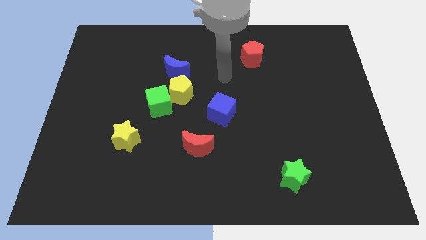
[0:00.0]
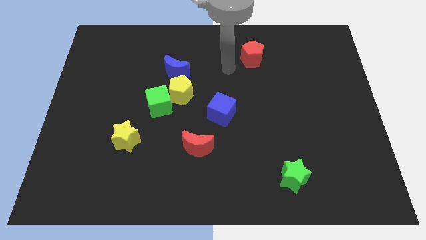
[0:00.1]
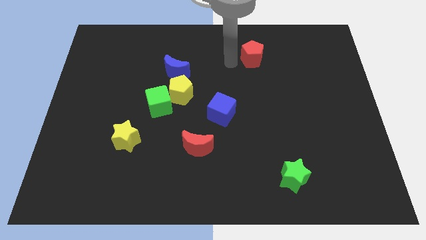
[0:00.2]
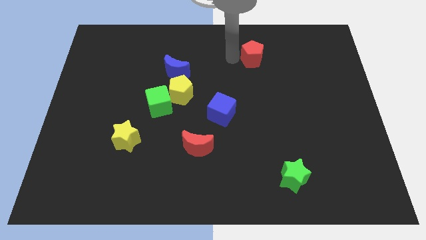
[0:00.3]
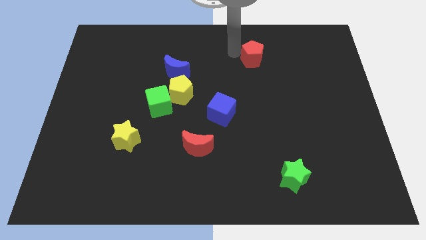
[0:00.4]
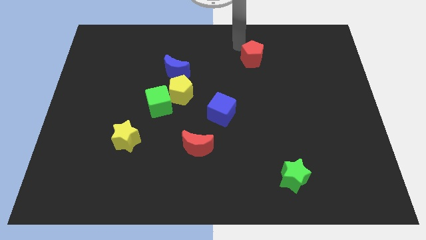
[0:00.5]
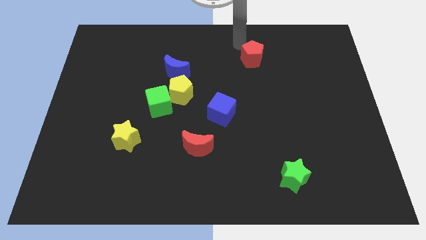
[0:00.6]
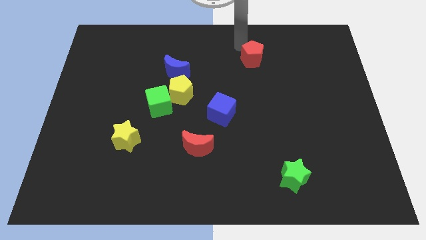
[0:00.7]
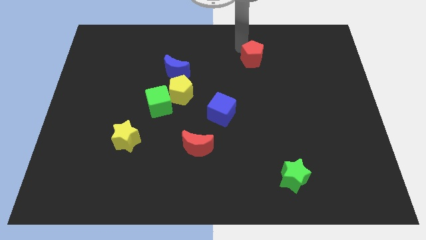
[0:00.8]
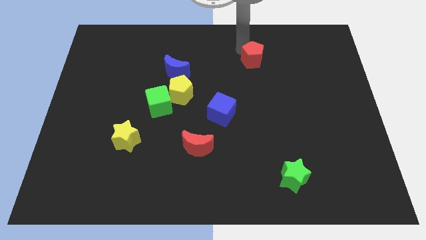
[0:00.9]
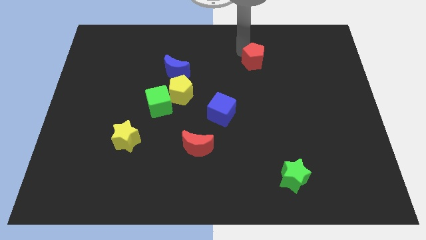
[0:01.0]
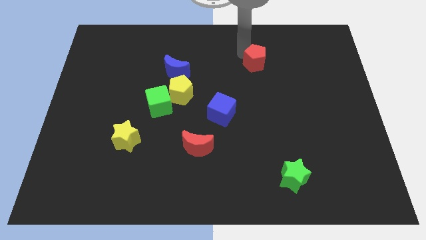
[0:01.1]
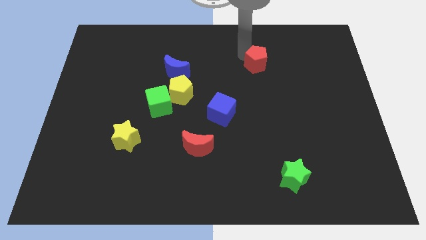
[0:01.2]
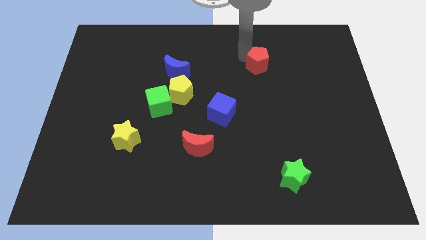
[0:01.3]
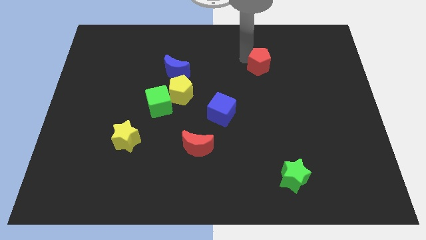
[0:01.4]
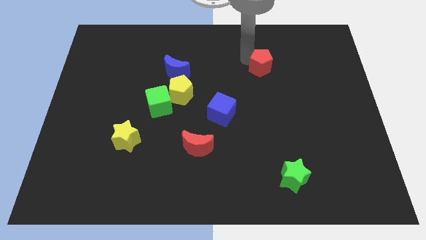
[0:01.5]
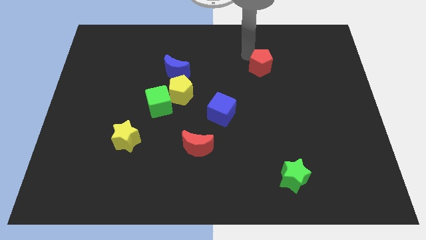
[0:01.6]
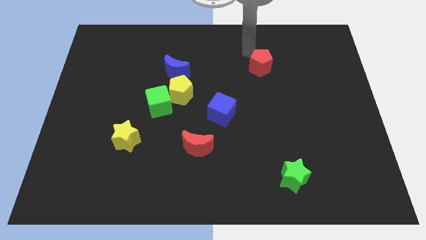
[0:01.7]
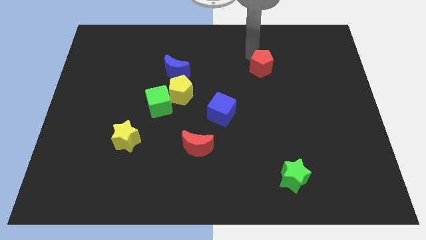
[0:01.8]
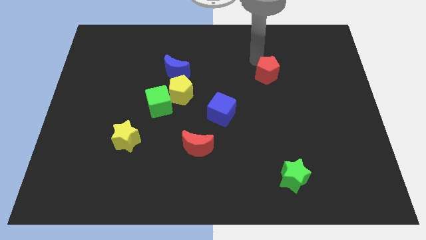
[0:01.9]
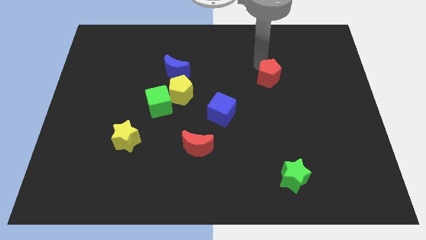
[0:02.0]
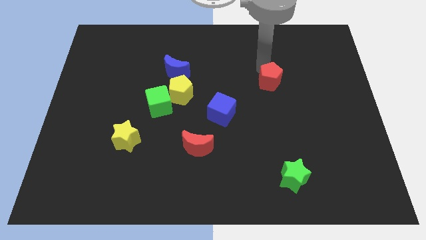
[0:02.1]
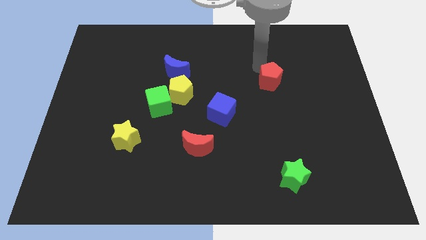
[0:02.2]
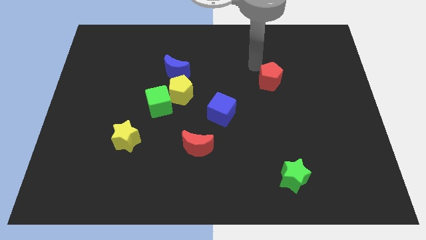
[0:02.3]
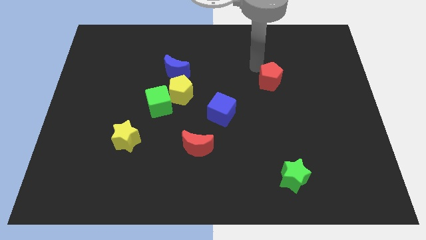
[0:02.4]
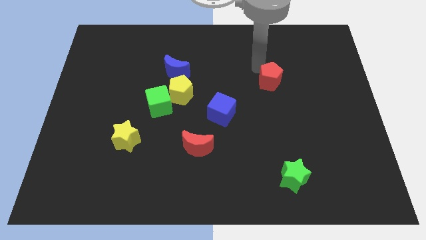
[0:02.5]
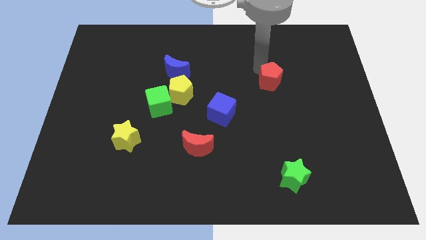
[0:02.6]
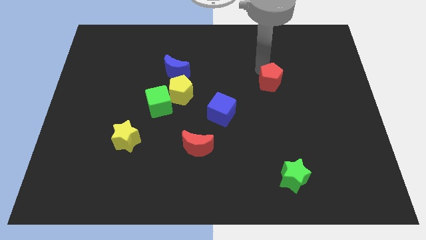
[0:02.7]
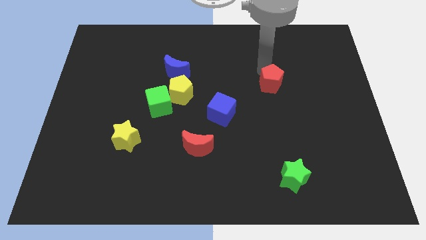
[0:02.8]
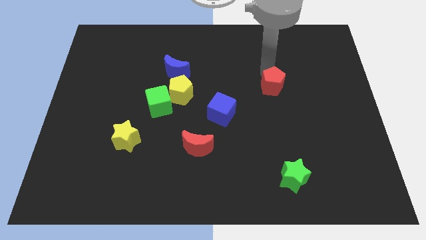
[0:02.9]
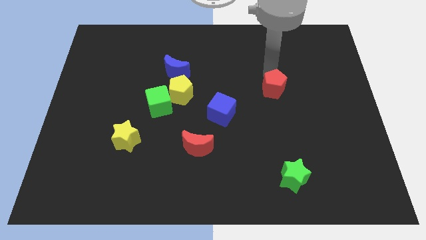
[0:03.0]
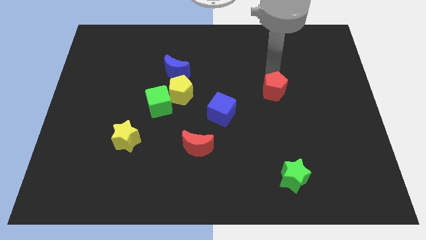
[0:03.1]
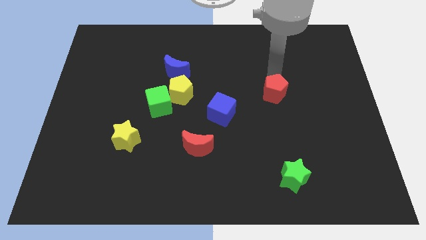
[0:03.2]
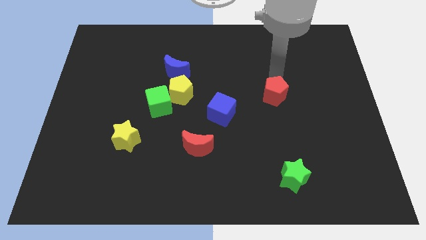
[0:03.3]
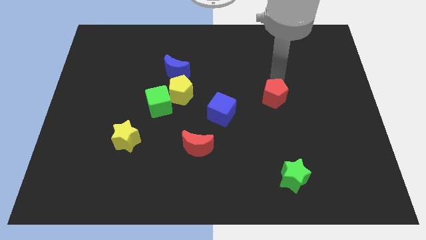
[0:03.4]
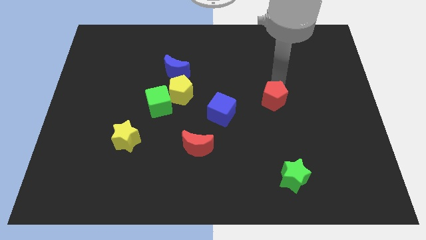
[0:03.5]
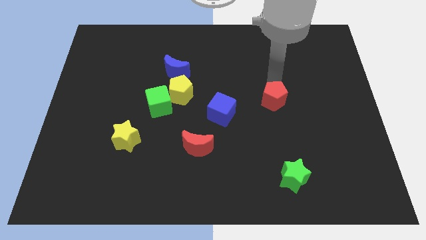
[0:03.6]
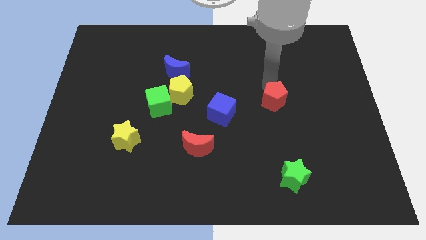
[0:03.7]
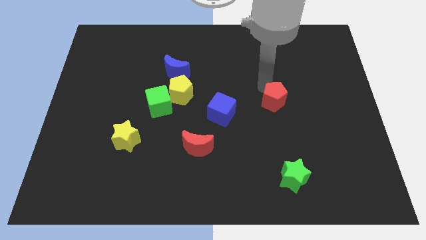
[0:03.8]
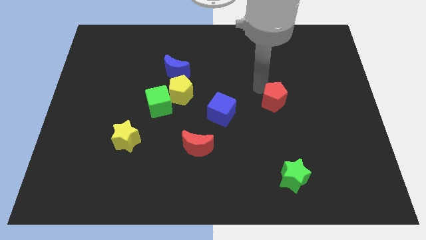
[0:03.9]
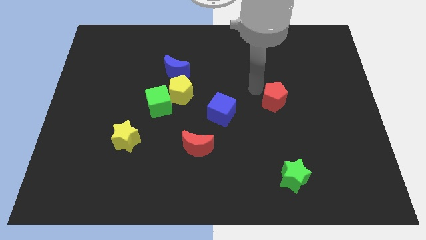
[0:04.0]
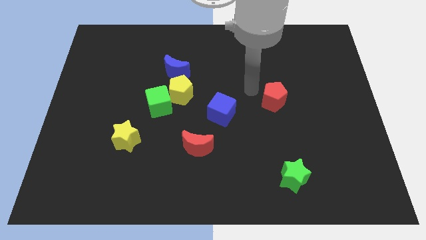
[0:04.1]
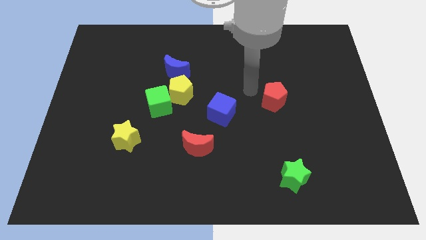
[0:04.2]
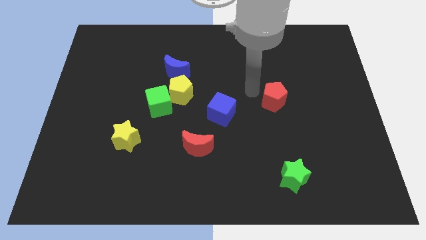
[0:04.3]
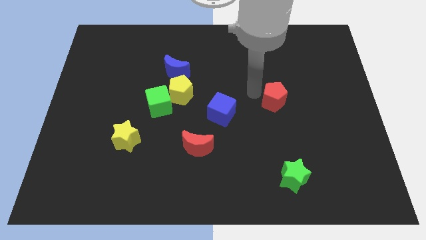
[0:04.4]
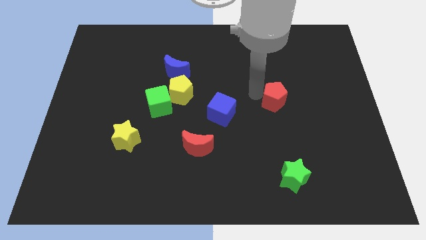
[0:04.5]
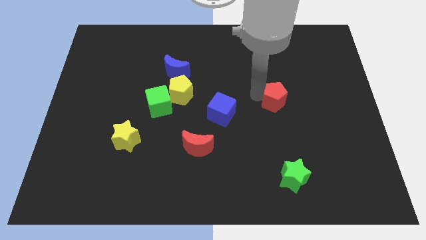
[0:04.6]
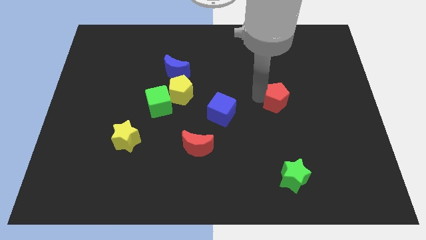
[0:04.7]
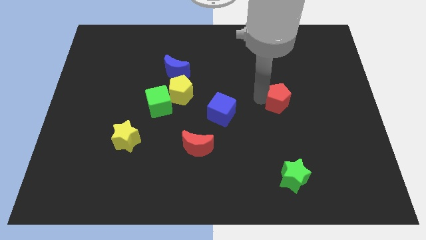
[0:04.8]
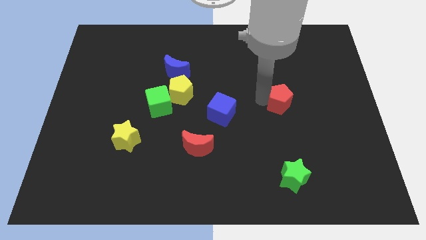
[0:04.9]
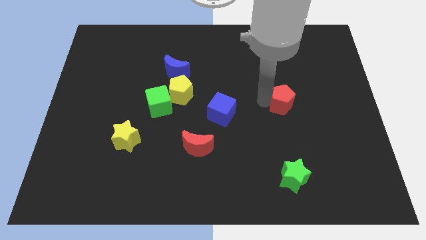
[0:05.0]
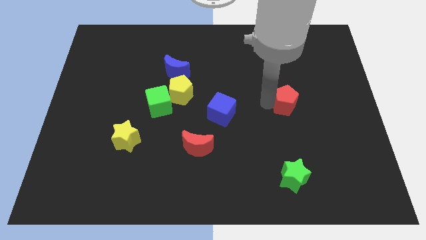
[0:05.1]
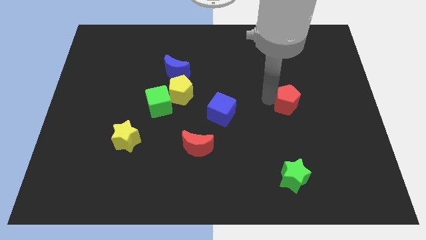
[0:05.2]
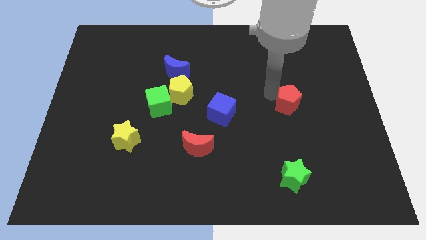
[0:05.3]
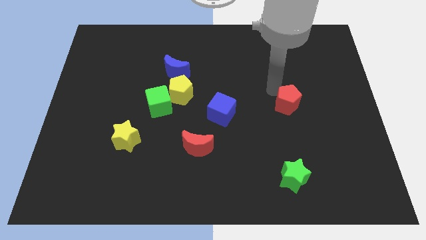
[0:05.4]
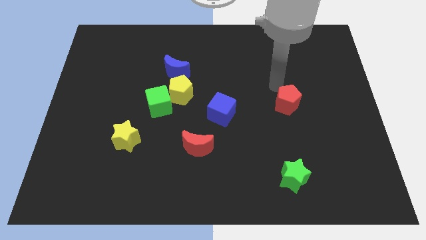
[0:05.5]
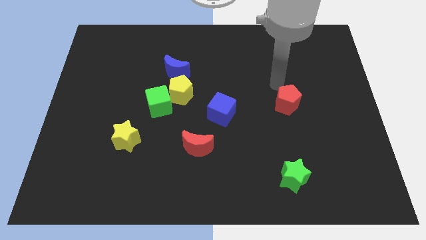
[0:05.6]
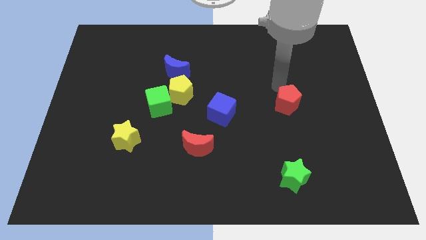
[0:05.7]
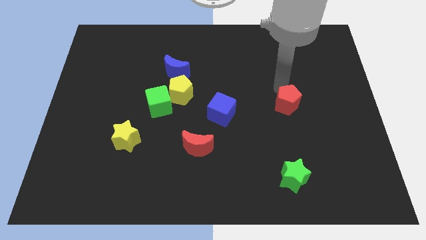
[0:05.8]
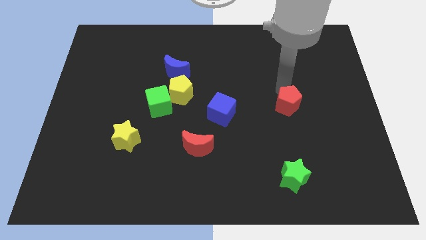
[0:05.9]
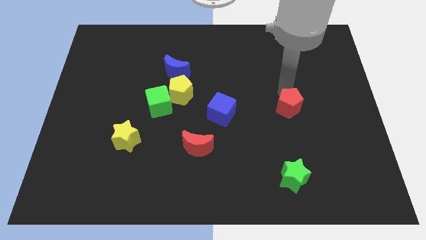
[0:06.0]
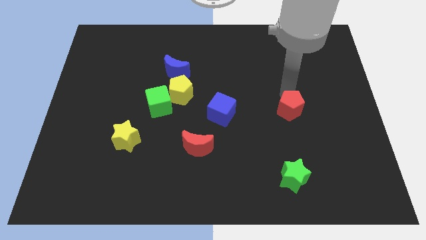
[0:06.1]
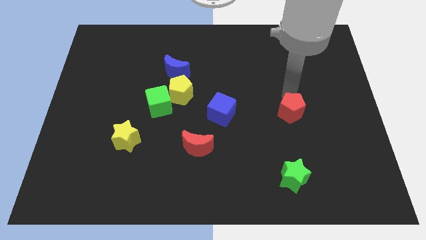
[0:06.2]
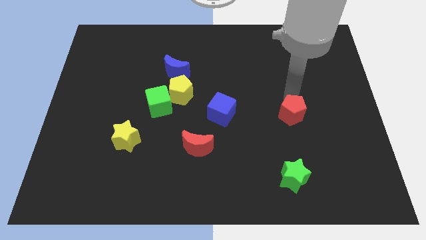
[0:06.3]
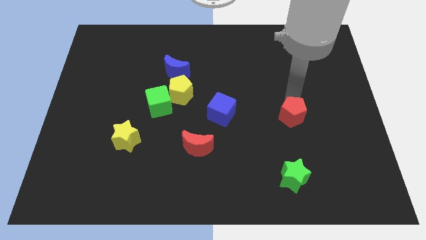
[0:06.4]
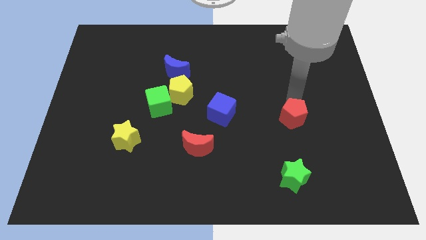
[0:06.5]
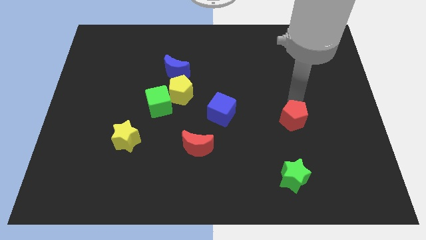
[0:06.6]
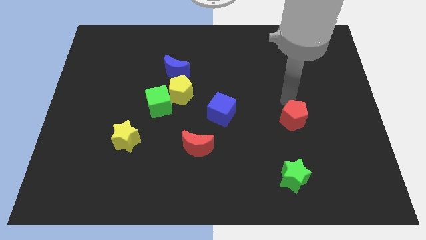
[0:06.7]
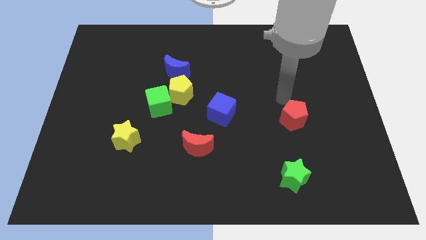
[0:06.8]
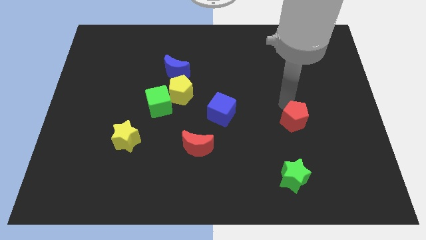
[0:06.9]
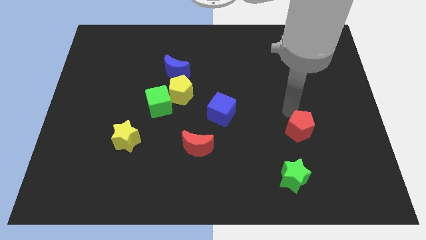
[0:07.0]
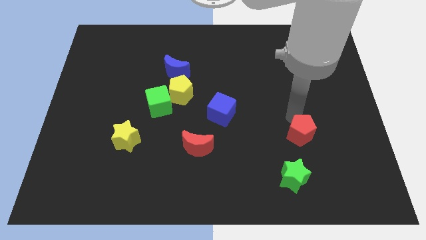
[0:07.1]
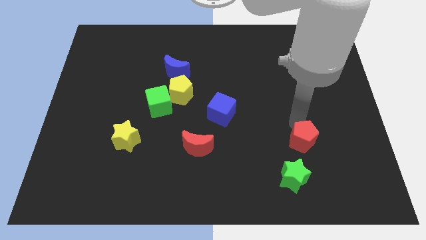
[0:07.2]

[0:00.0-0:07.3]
put the red pentagon to the top right of the green star
